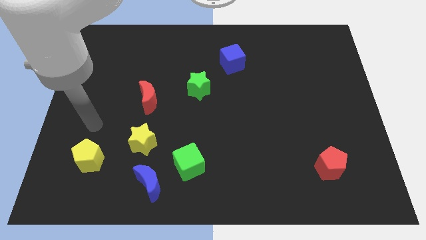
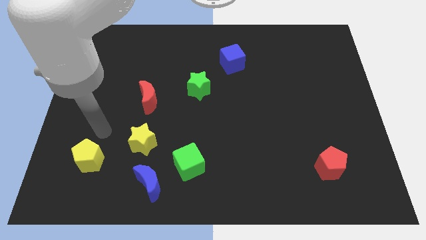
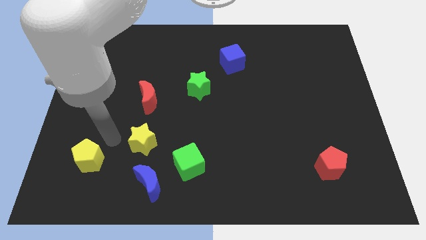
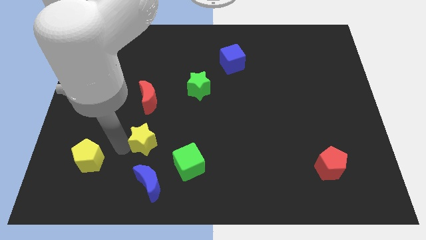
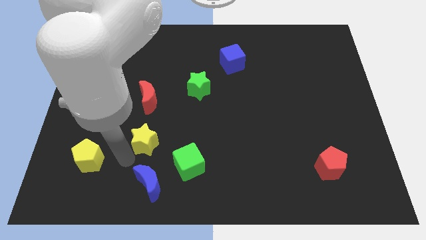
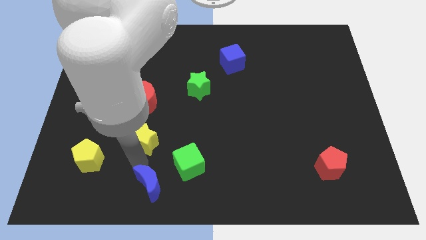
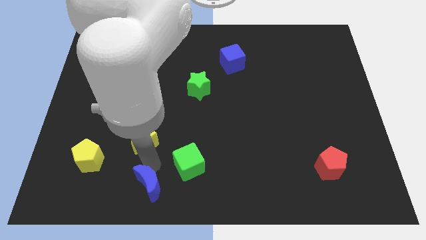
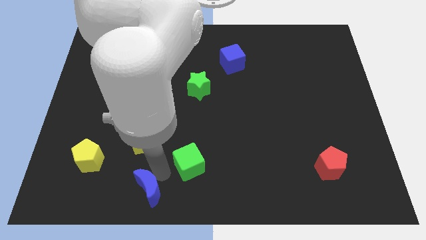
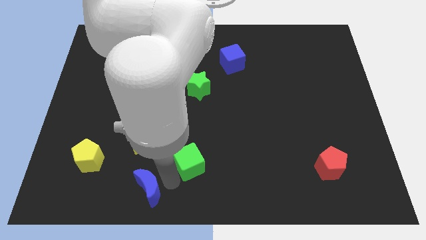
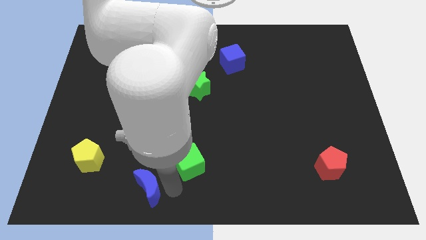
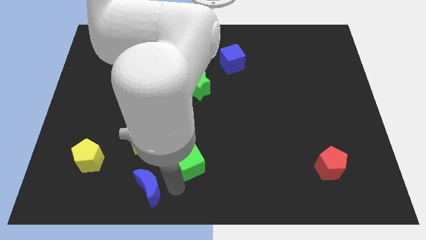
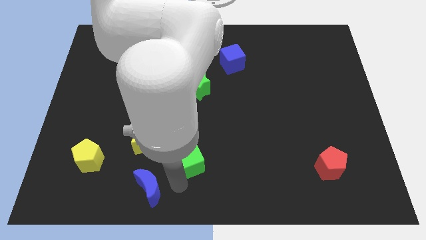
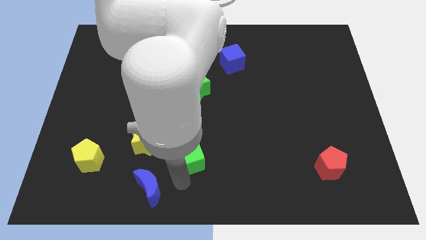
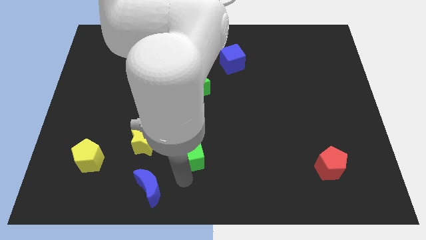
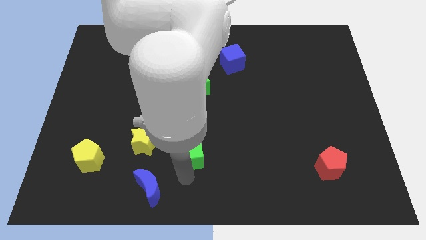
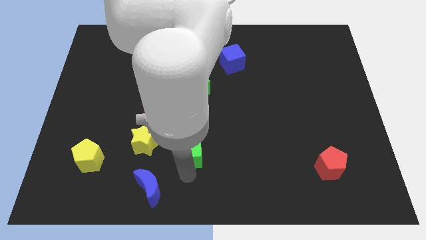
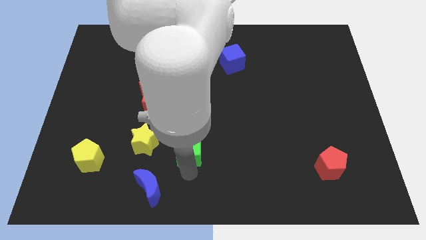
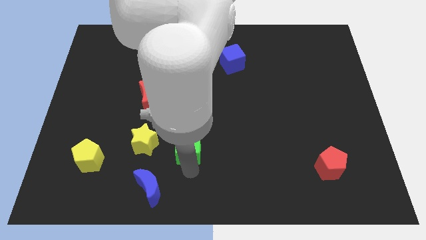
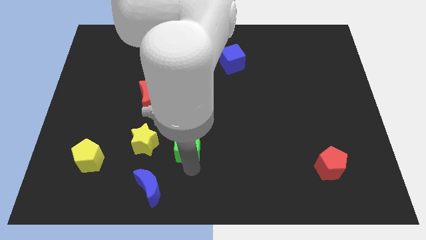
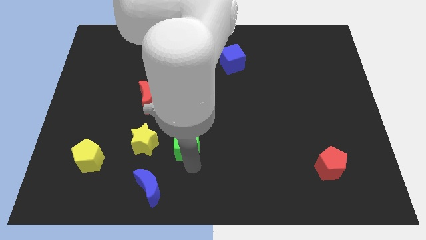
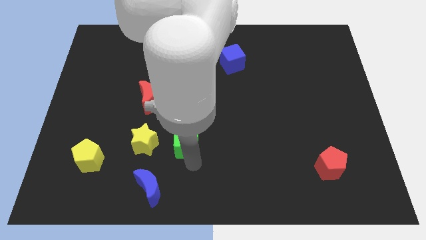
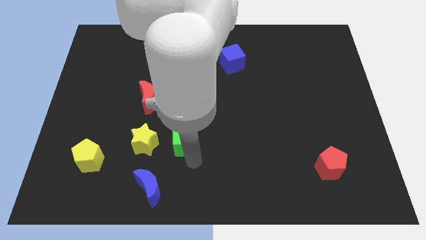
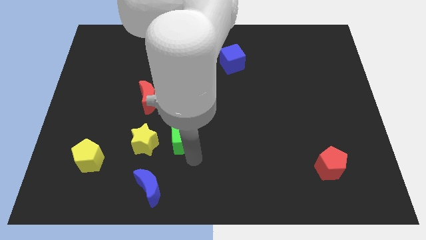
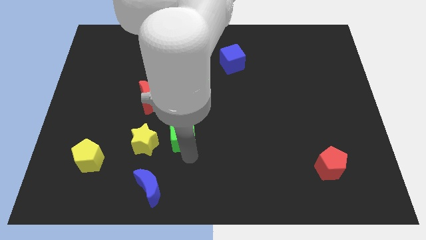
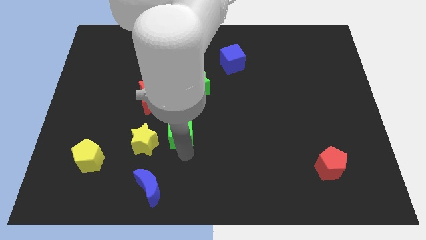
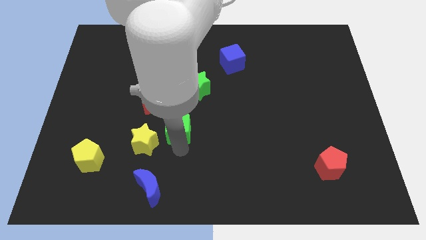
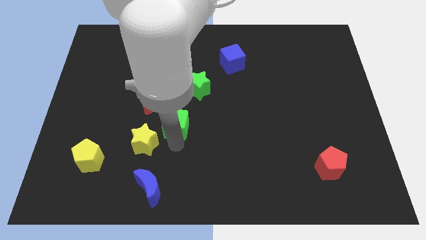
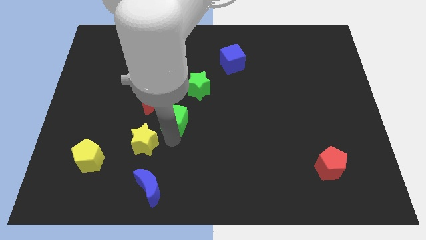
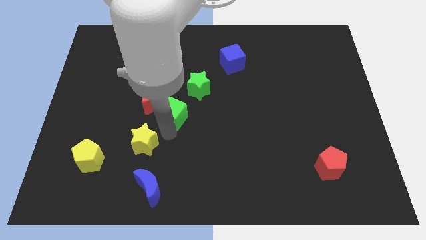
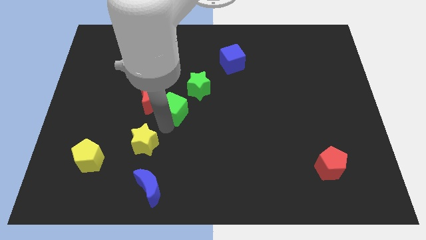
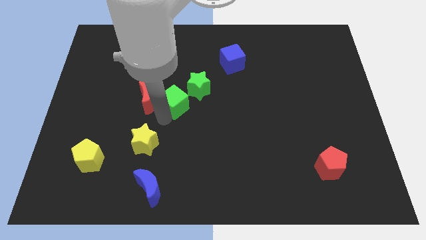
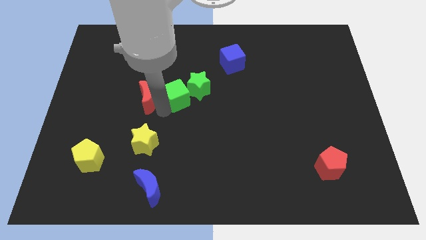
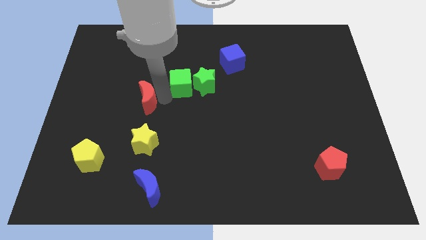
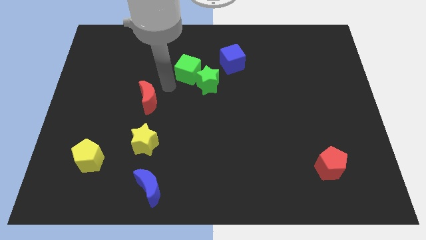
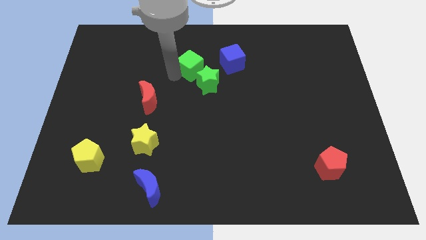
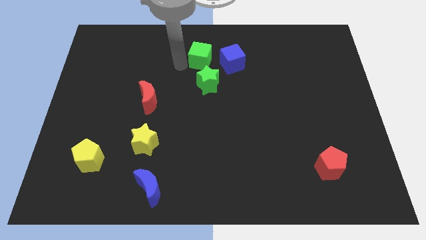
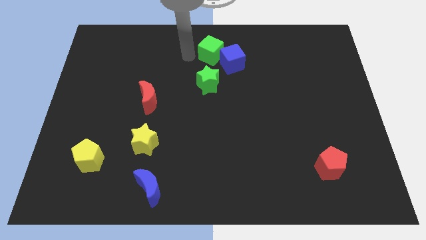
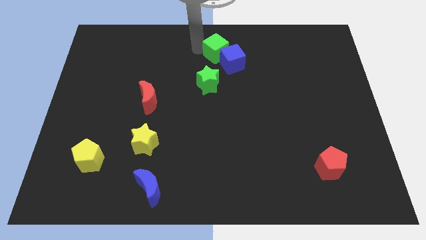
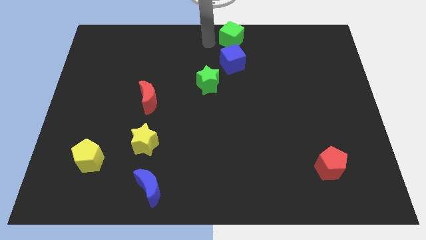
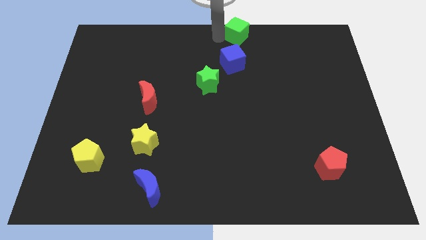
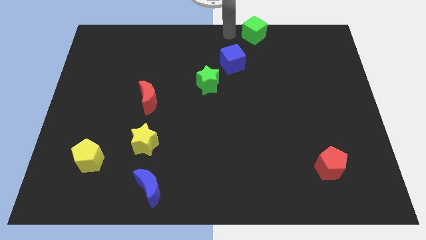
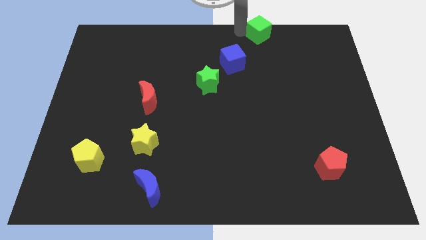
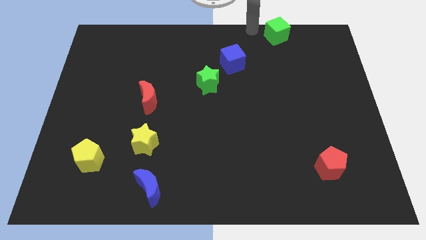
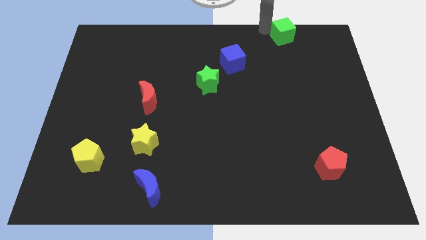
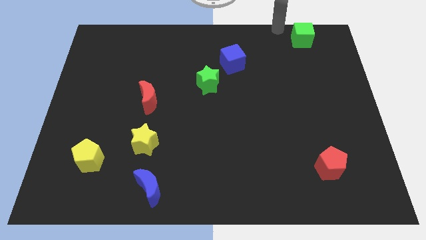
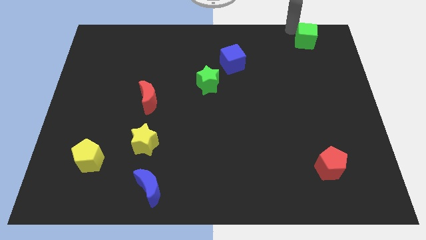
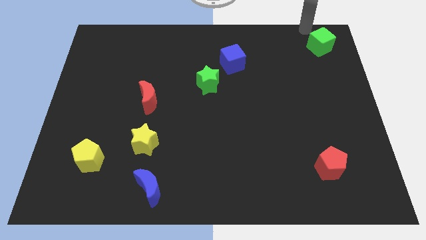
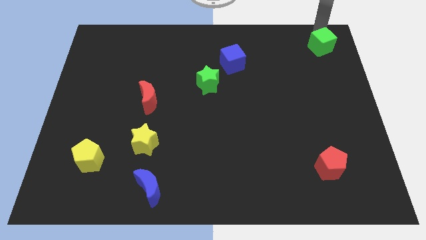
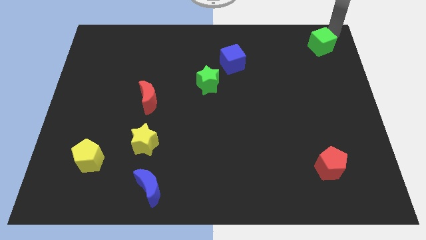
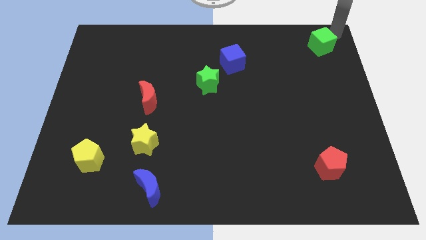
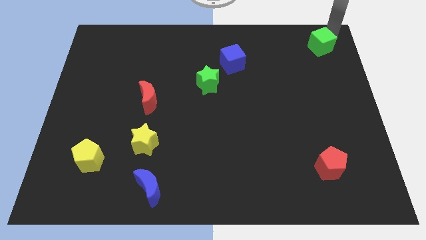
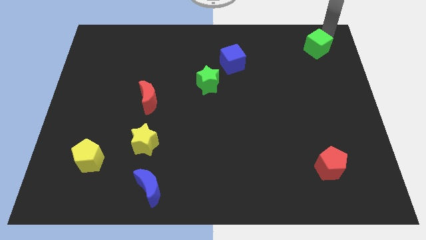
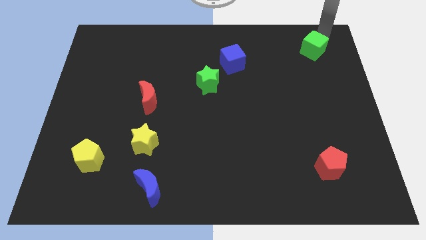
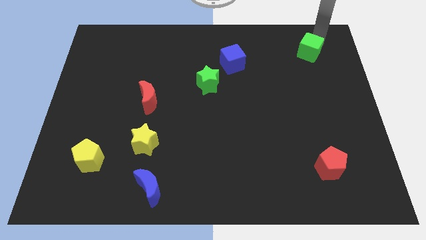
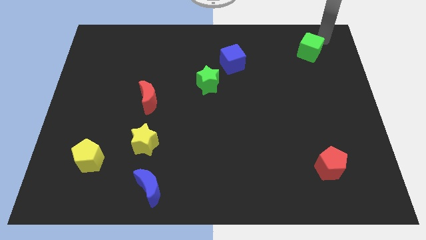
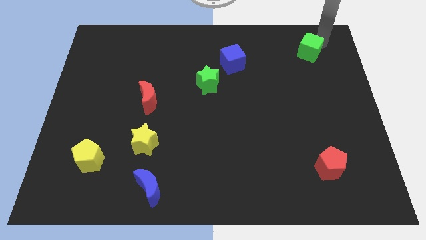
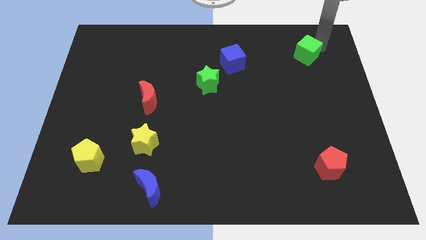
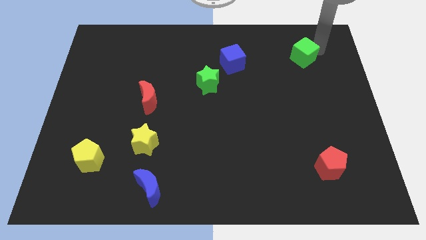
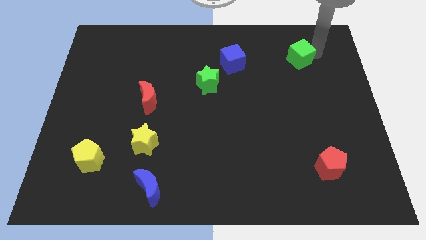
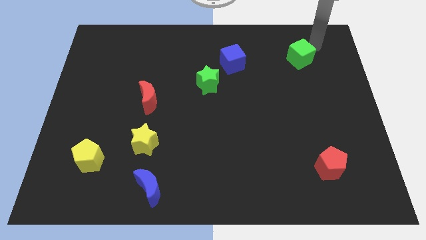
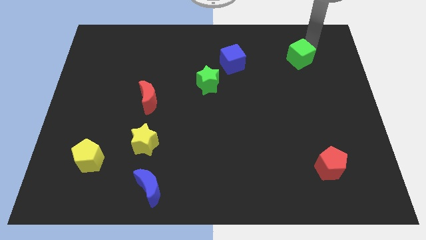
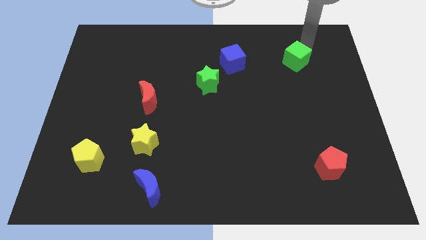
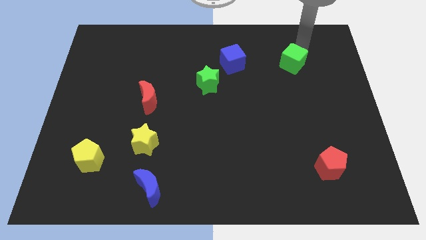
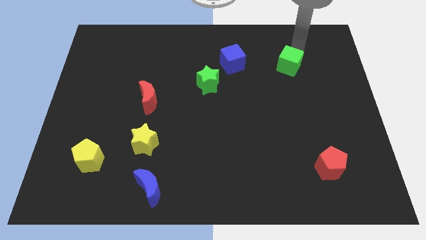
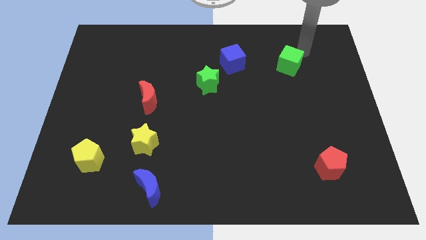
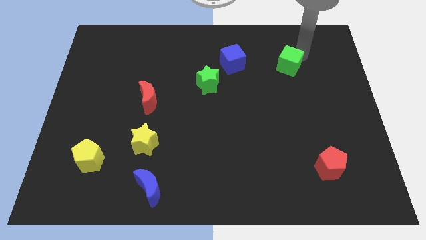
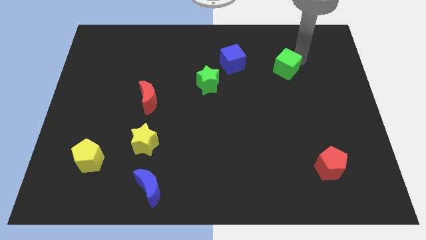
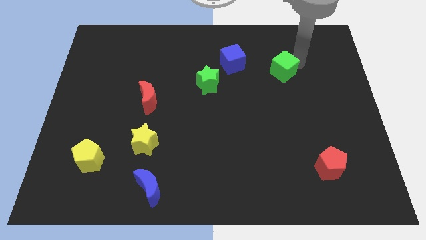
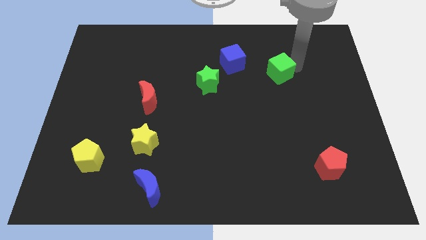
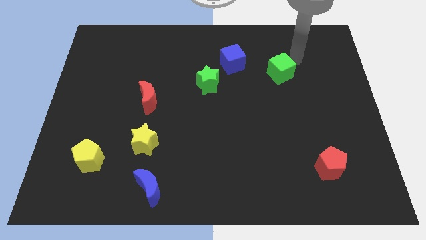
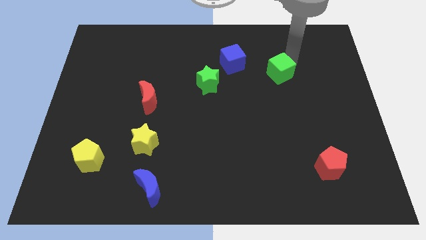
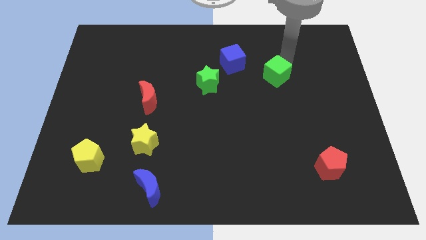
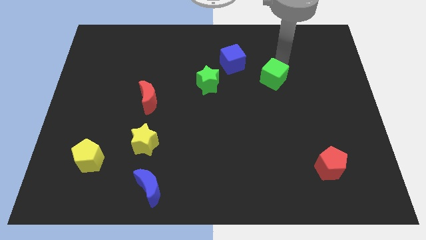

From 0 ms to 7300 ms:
push the green cube slightly upwards and right

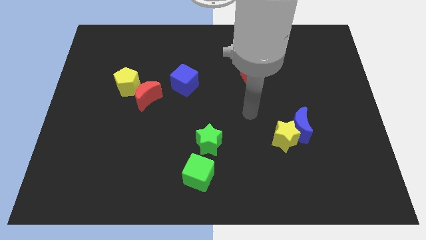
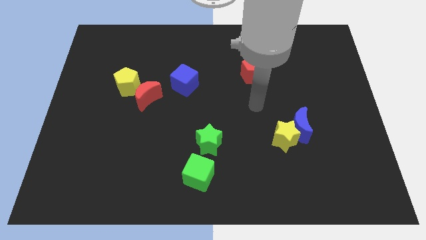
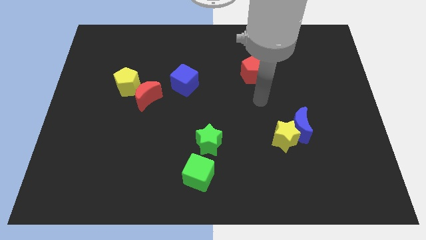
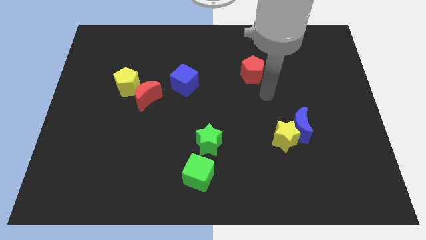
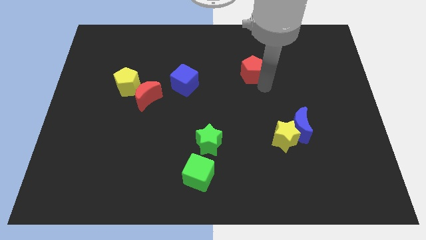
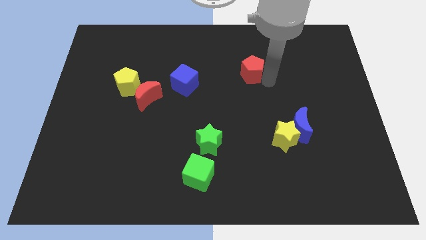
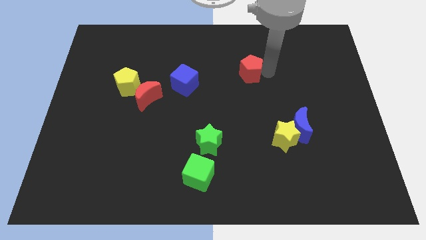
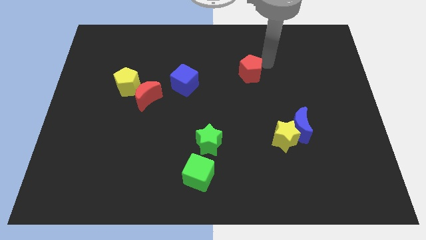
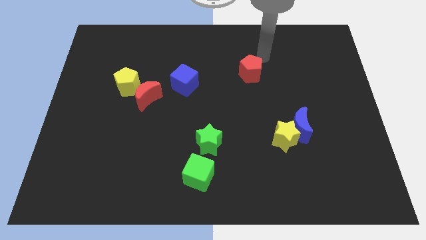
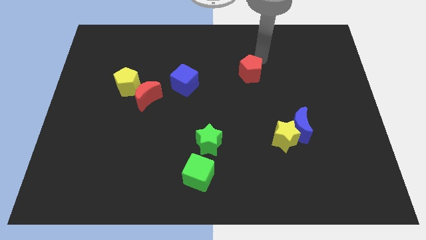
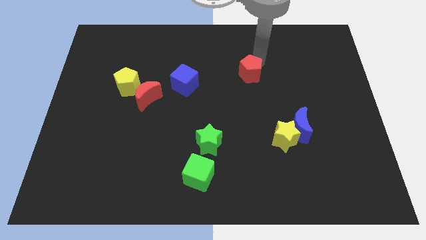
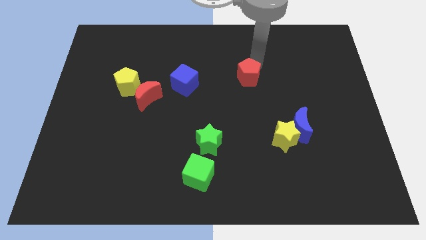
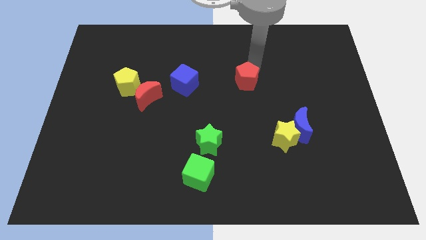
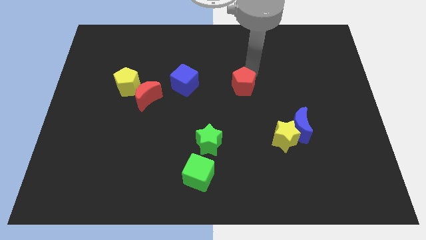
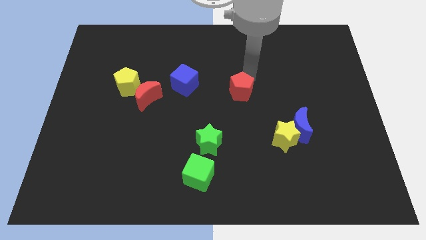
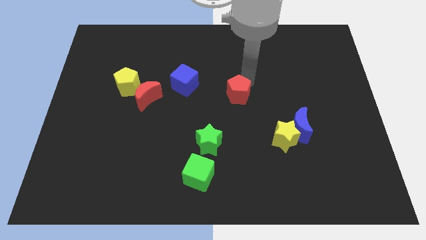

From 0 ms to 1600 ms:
push the red pentagon a little diagonally downwards and left
